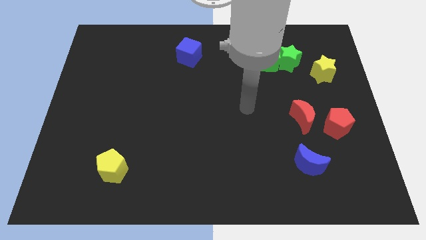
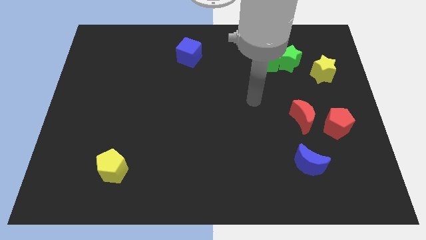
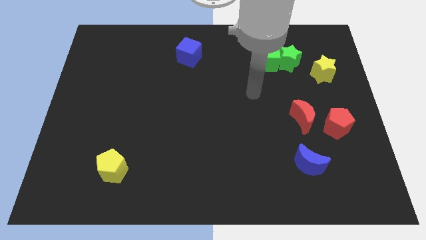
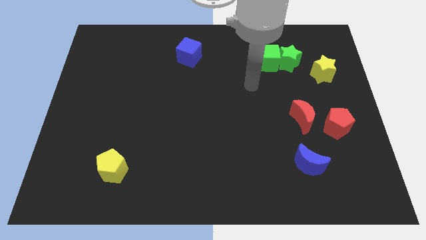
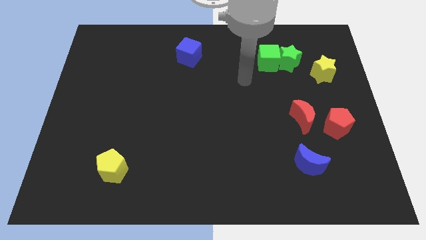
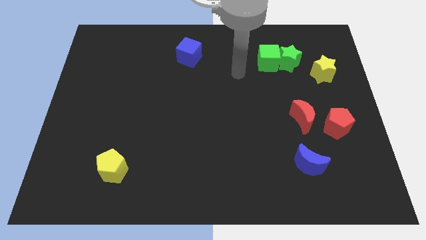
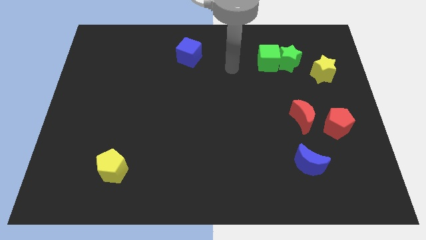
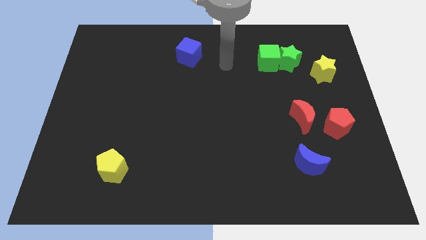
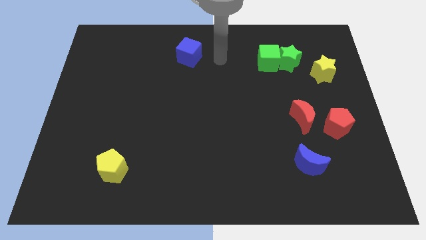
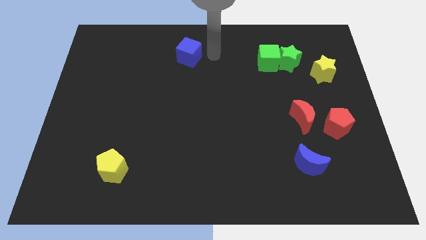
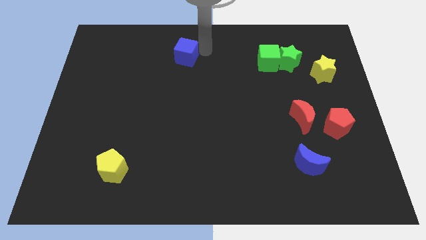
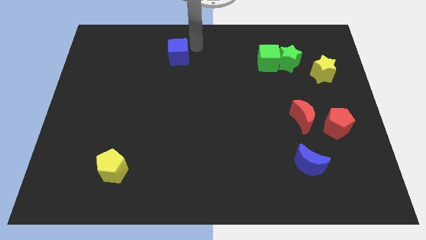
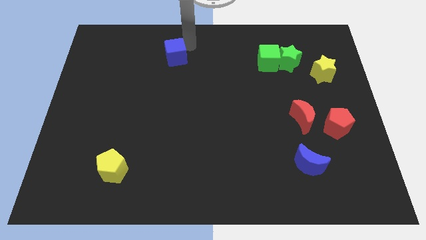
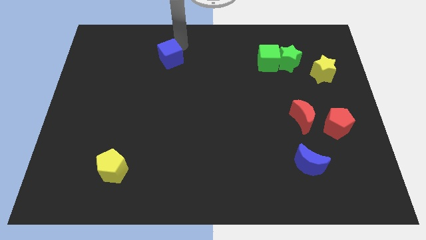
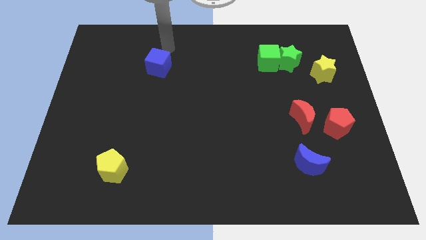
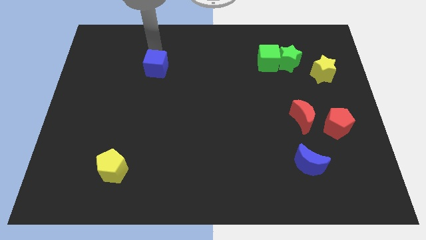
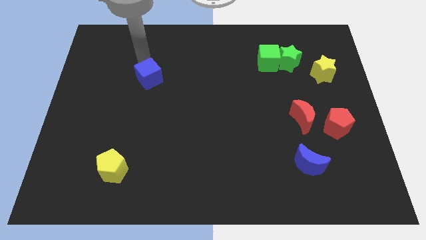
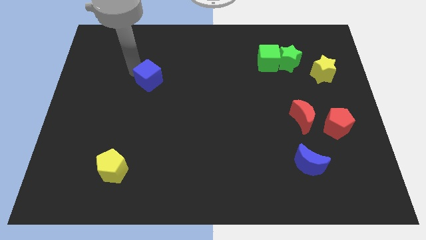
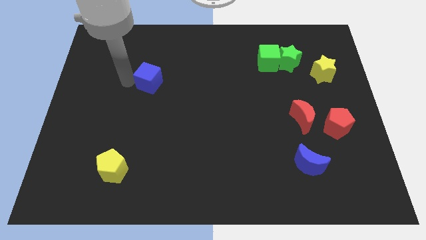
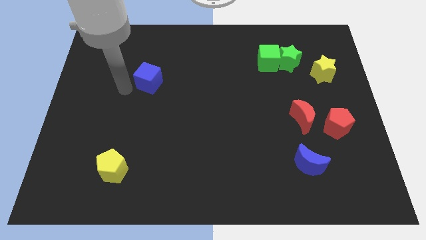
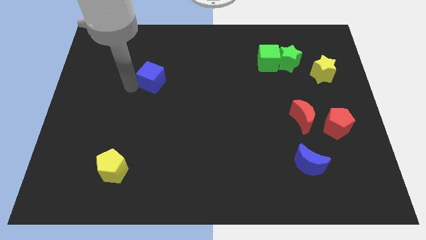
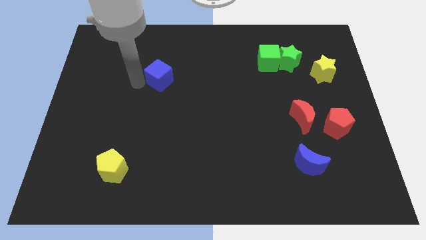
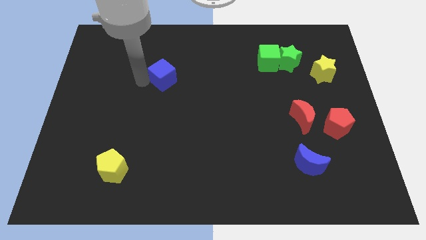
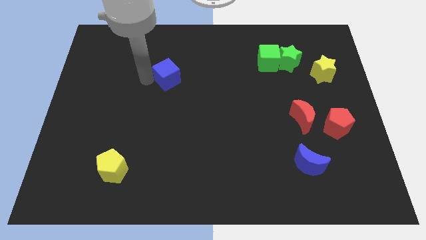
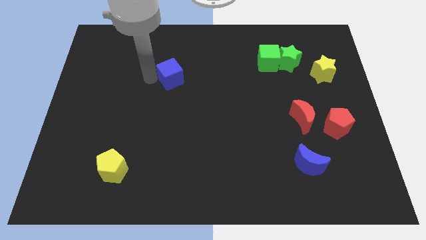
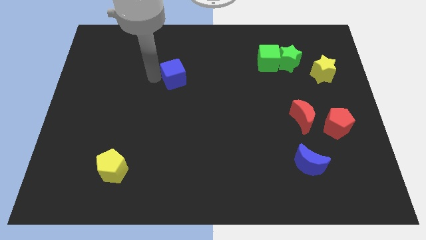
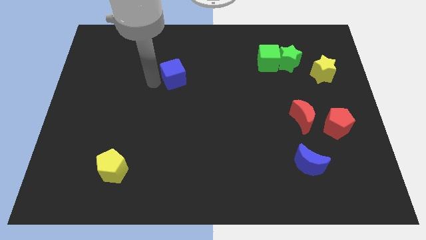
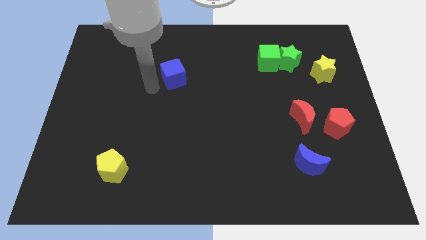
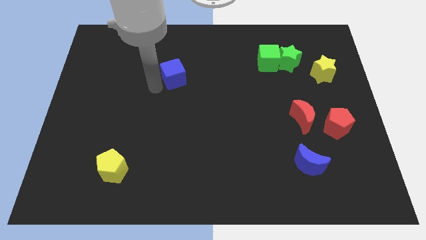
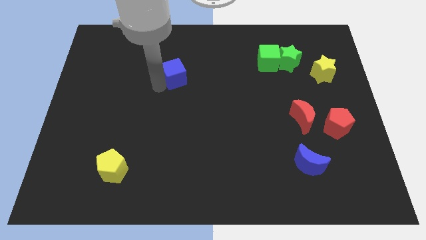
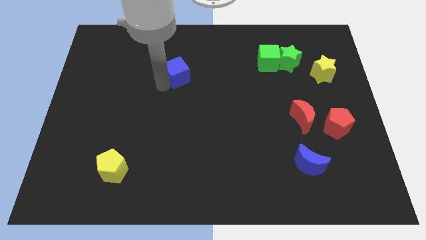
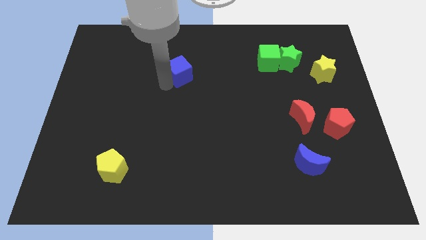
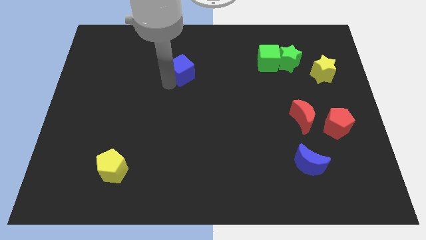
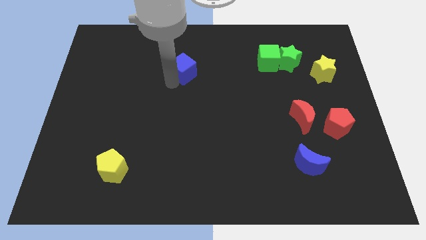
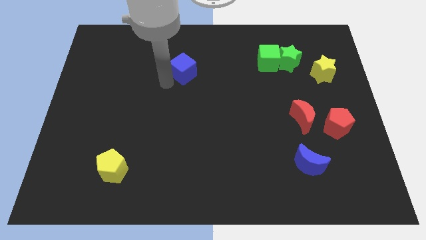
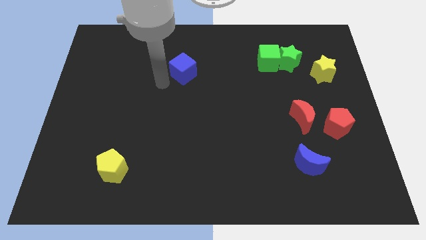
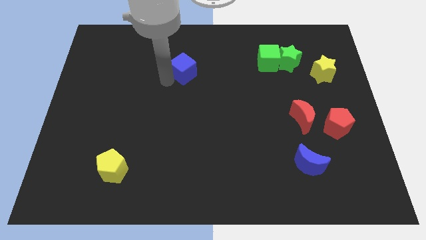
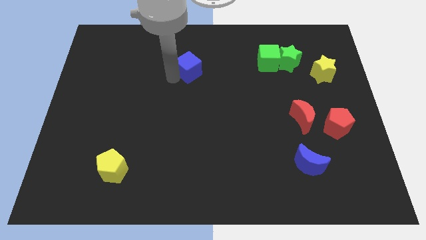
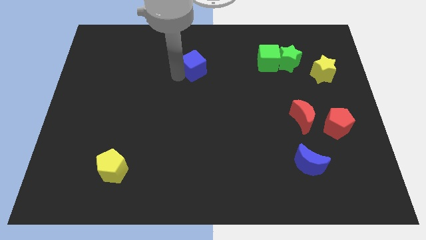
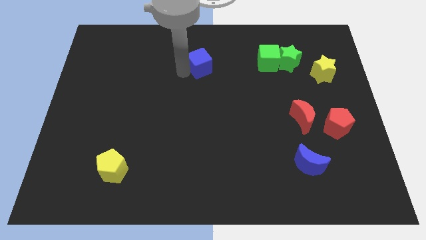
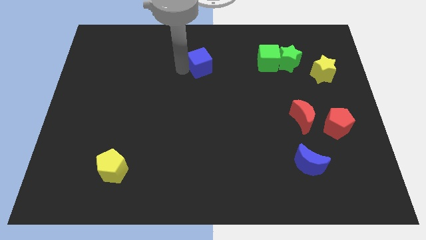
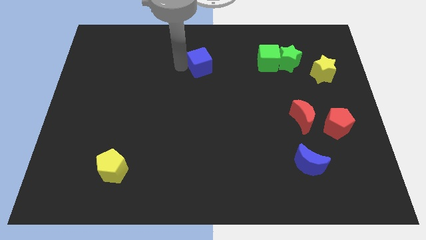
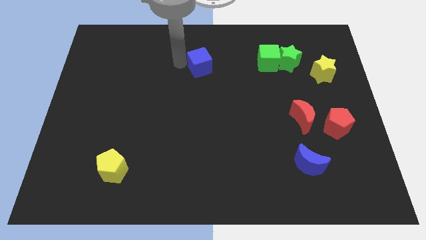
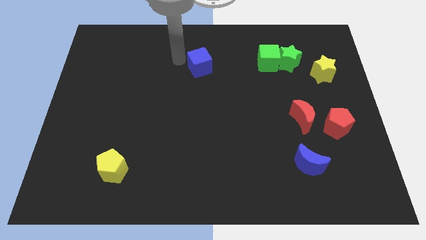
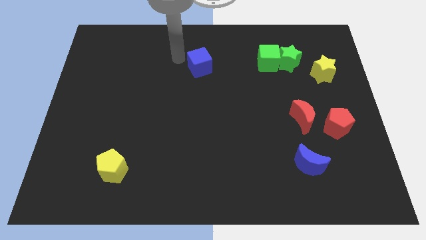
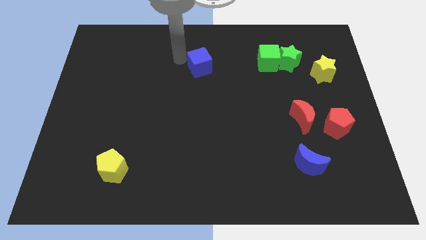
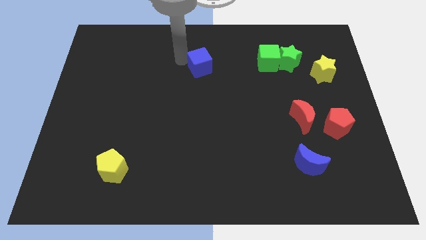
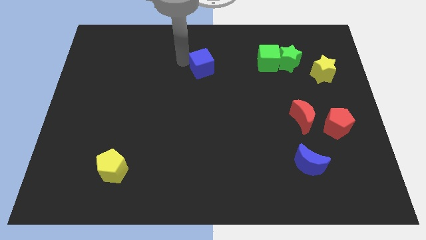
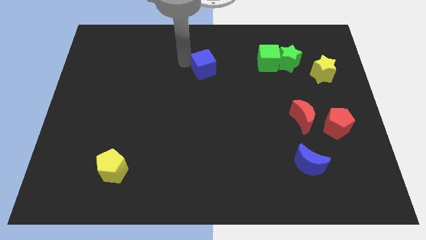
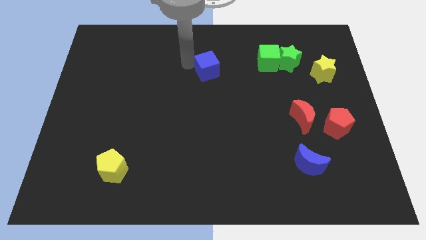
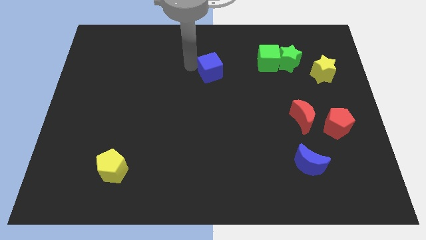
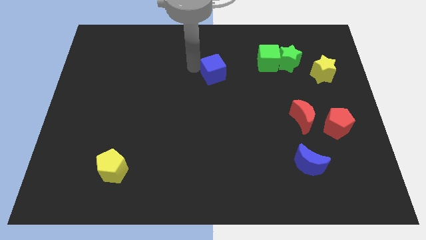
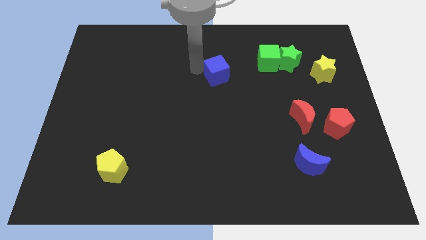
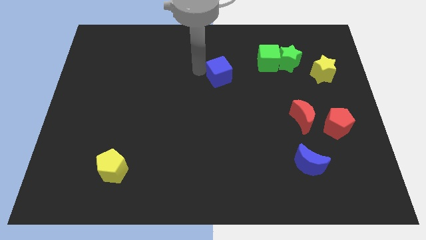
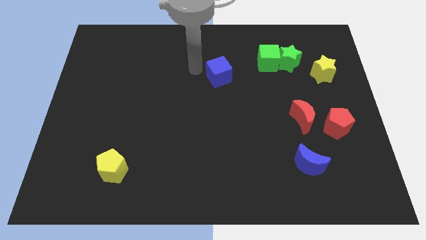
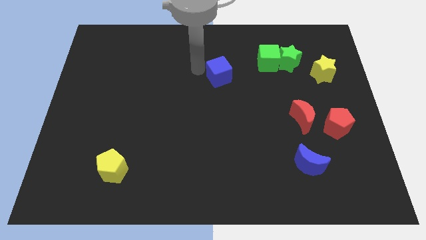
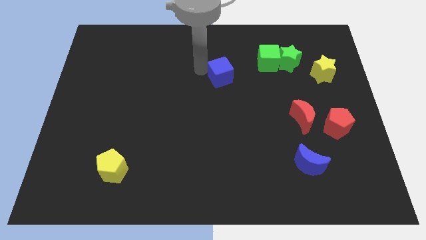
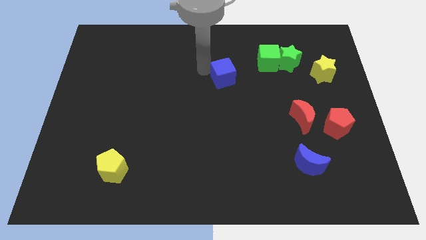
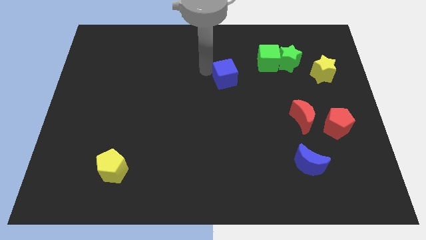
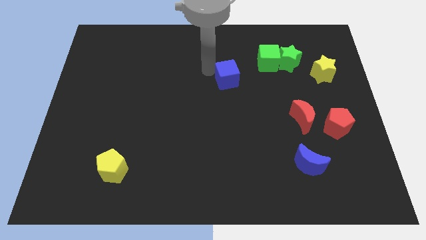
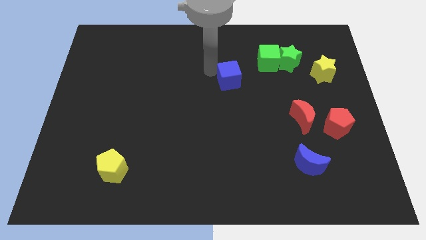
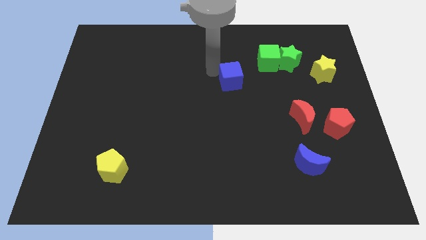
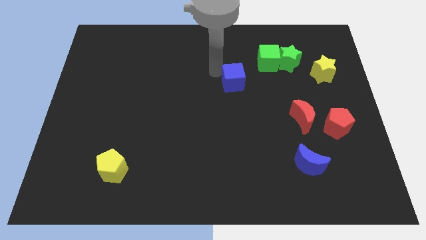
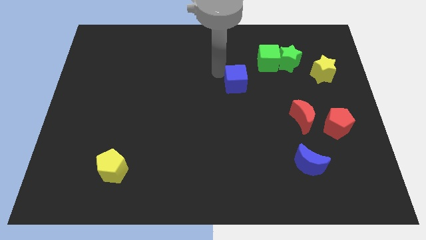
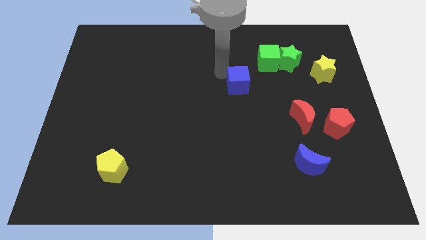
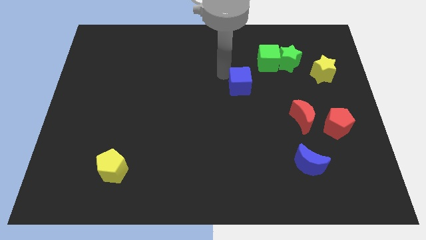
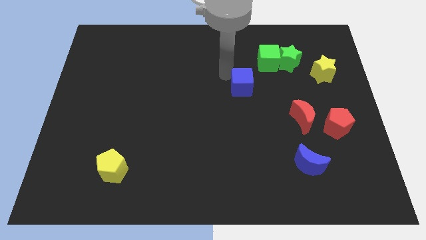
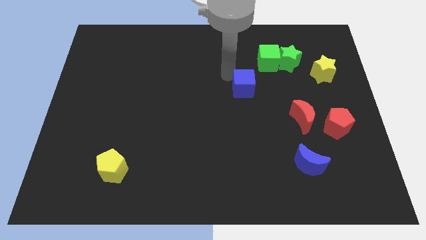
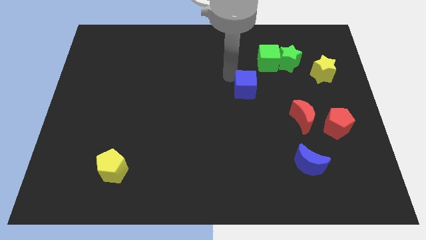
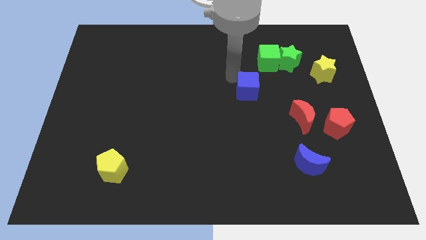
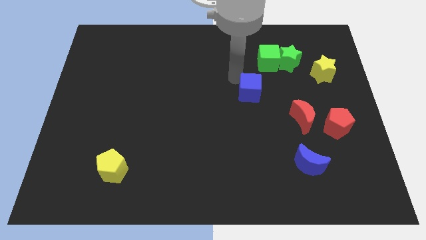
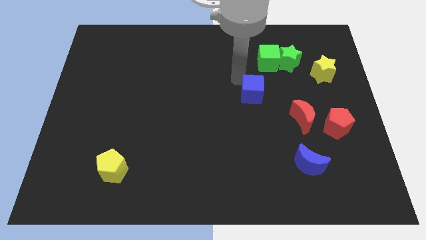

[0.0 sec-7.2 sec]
slide the blue cube to the bottom side of the green cube
